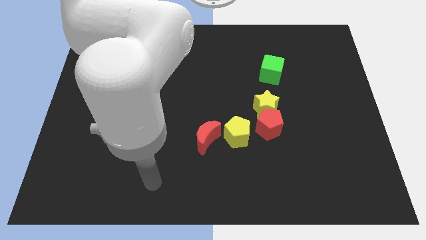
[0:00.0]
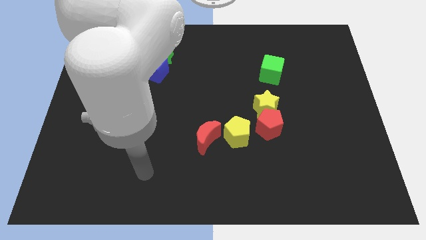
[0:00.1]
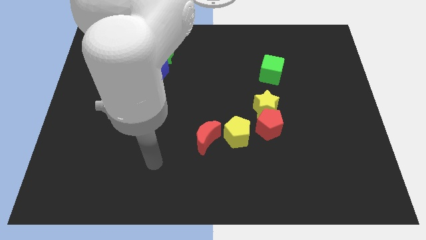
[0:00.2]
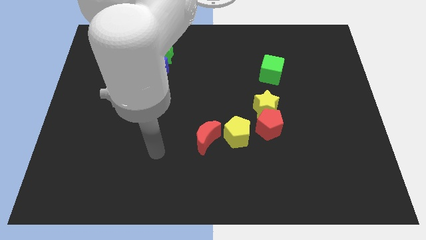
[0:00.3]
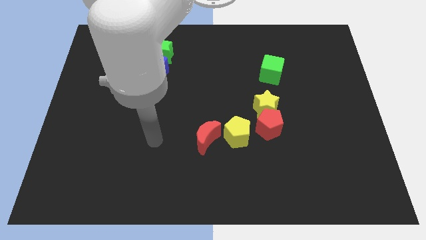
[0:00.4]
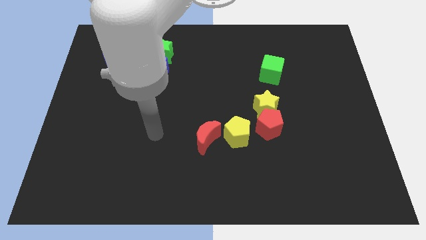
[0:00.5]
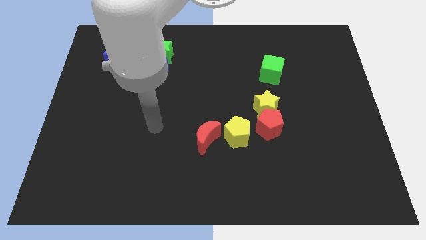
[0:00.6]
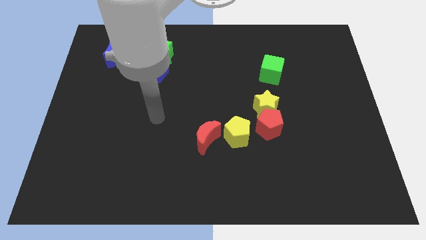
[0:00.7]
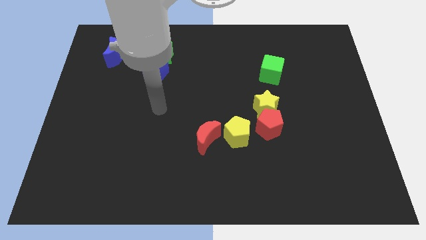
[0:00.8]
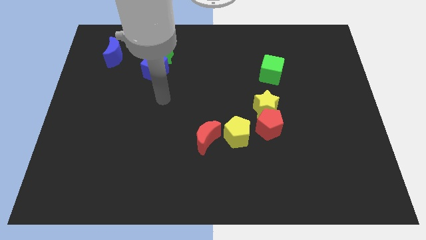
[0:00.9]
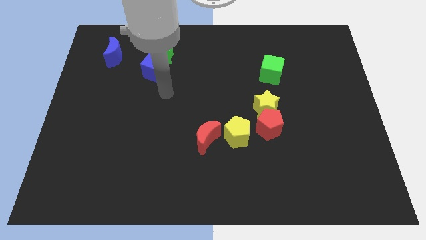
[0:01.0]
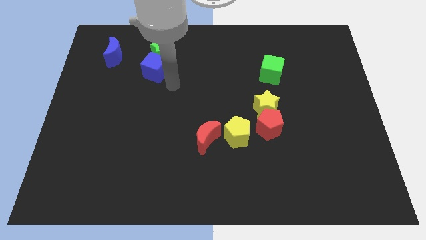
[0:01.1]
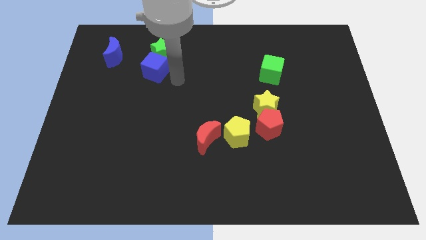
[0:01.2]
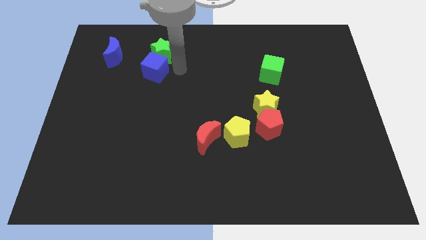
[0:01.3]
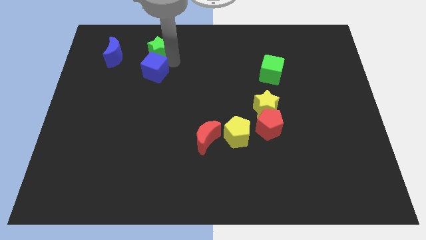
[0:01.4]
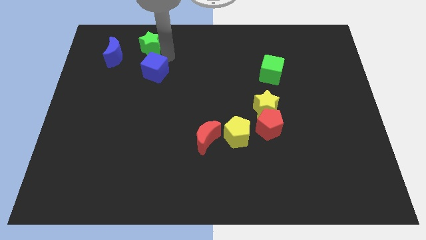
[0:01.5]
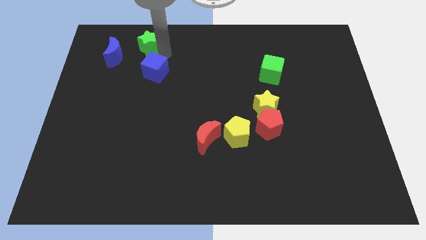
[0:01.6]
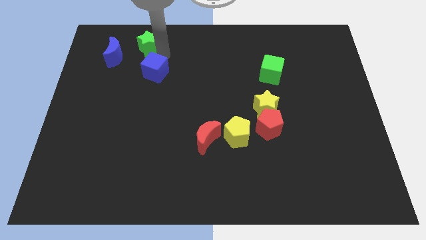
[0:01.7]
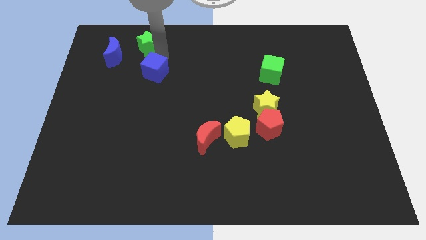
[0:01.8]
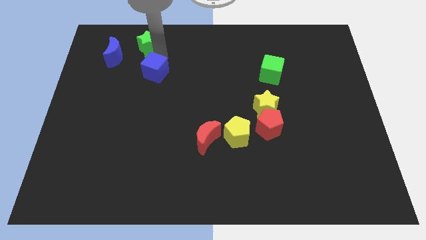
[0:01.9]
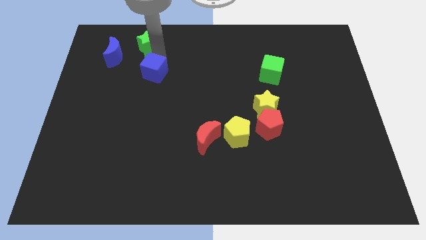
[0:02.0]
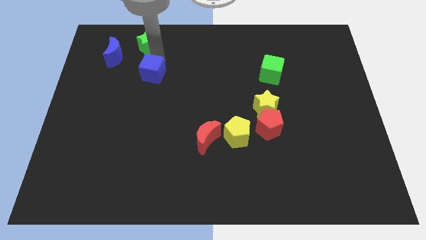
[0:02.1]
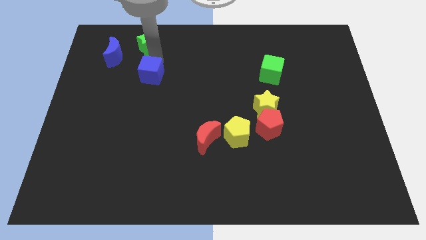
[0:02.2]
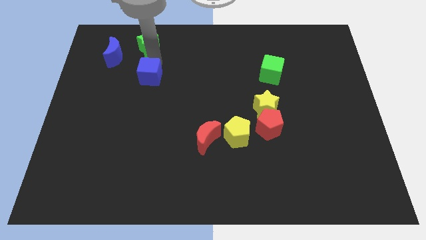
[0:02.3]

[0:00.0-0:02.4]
separate the blue cube from the green star

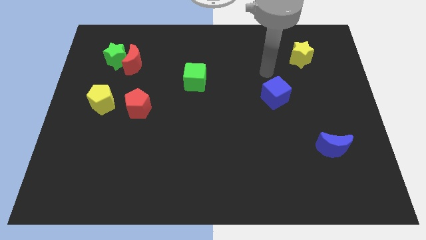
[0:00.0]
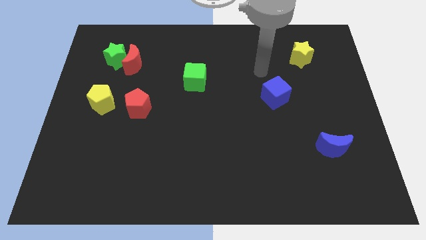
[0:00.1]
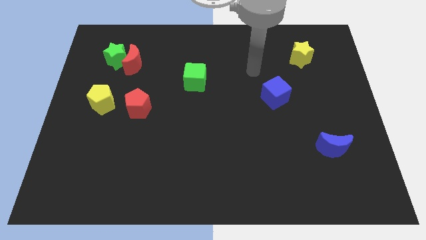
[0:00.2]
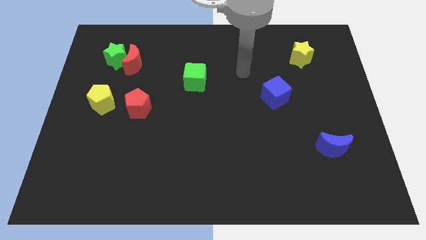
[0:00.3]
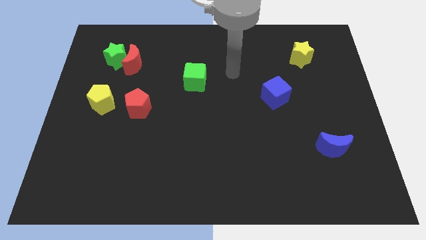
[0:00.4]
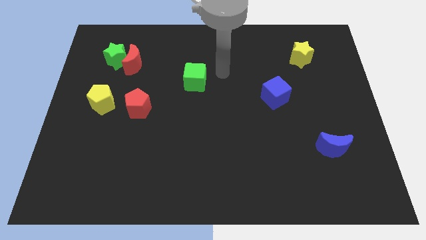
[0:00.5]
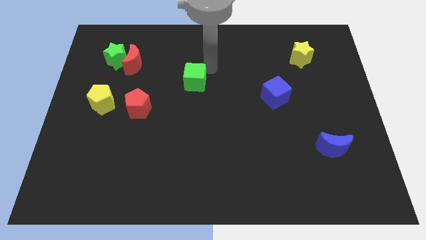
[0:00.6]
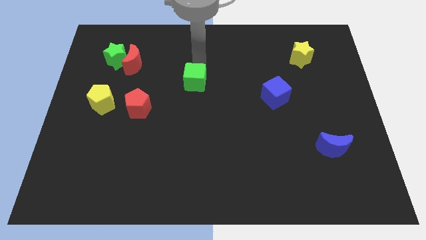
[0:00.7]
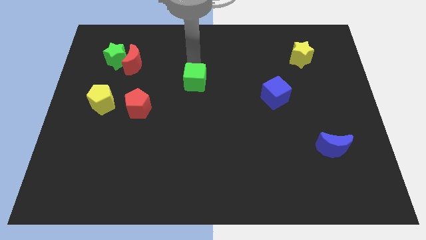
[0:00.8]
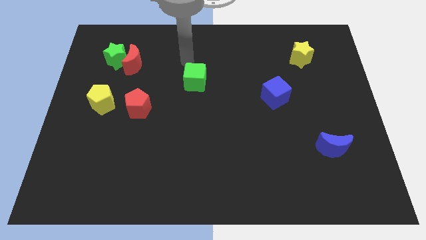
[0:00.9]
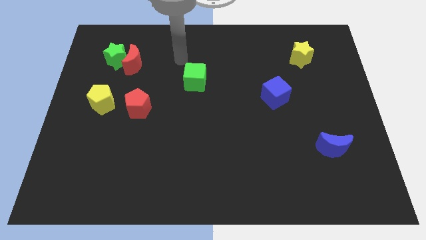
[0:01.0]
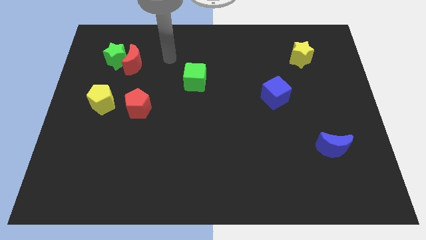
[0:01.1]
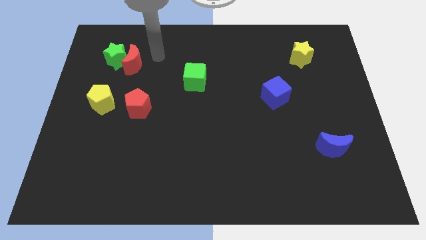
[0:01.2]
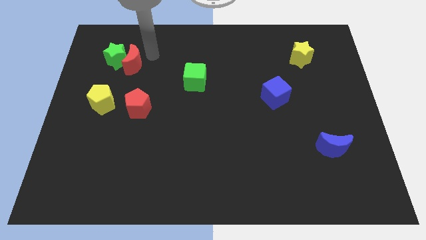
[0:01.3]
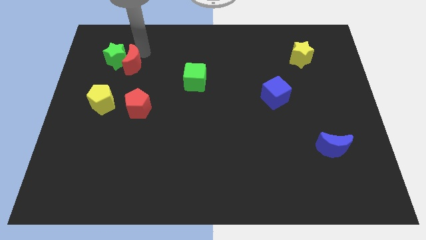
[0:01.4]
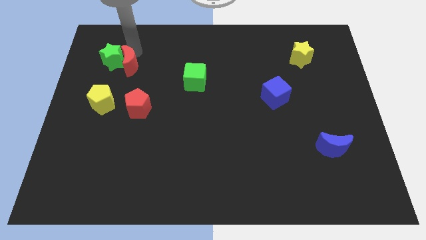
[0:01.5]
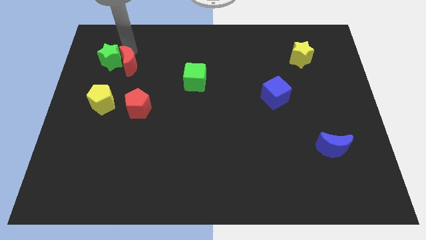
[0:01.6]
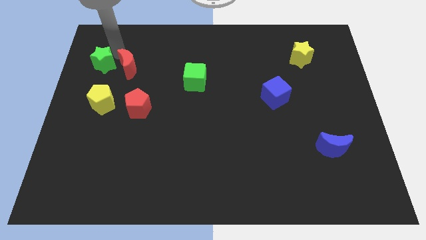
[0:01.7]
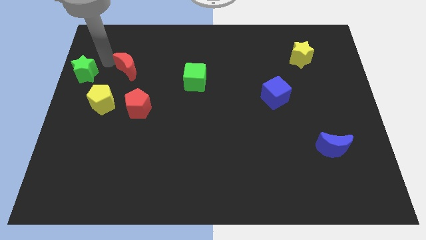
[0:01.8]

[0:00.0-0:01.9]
separate the red moon from the green star

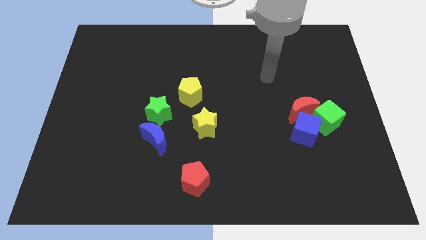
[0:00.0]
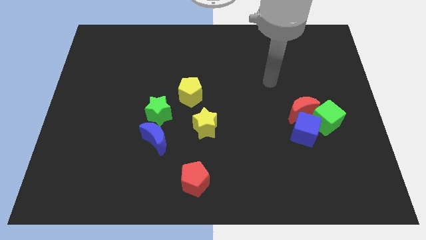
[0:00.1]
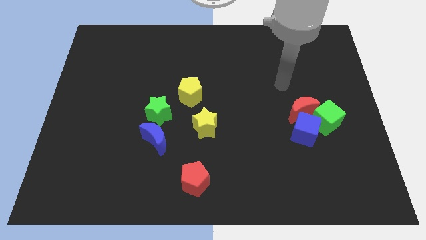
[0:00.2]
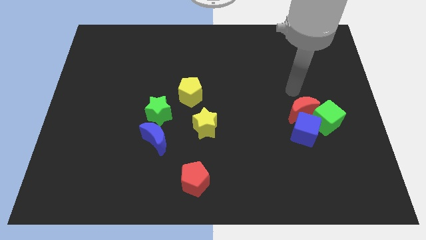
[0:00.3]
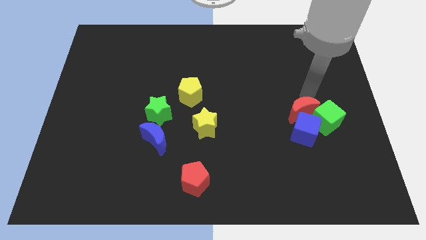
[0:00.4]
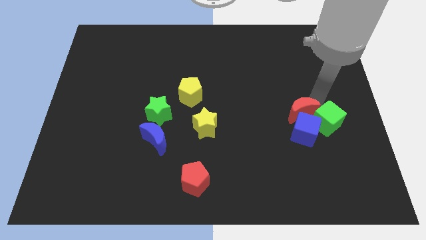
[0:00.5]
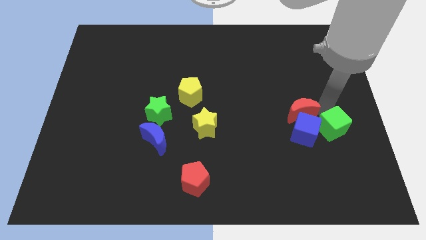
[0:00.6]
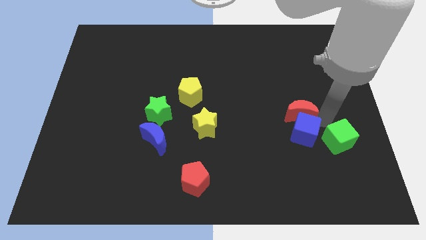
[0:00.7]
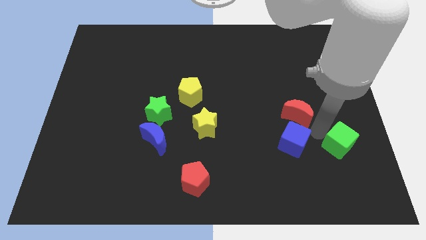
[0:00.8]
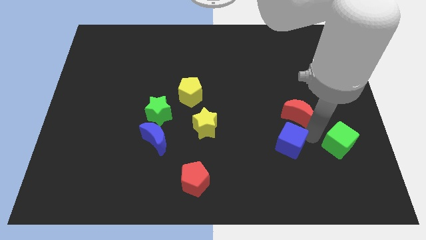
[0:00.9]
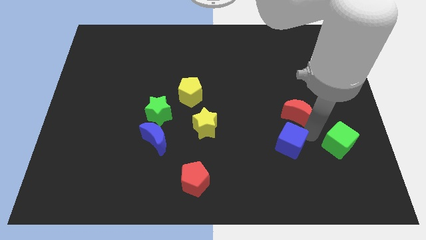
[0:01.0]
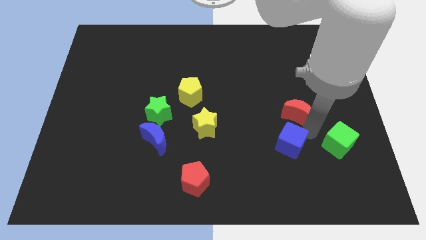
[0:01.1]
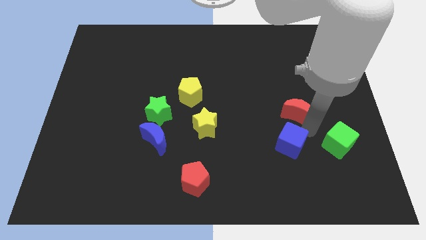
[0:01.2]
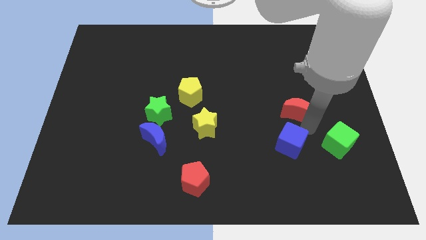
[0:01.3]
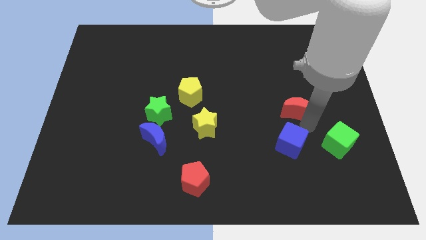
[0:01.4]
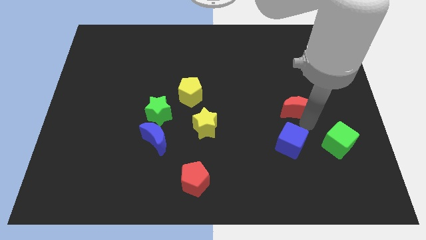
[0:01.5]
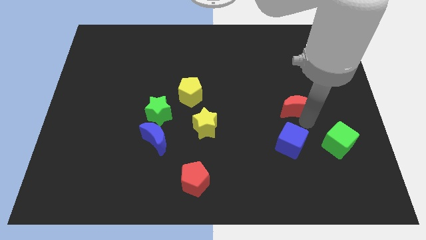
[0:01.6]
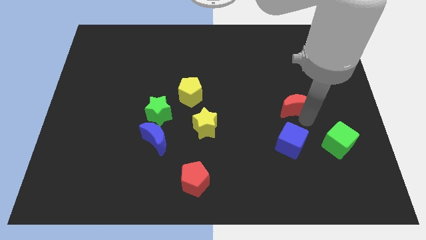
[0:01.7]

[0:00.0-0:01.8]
pull the red moon apart from the blue cube and green cube

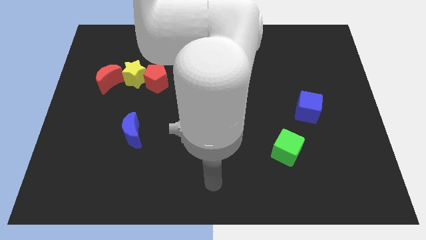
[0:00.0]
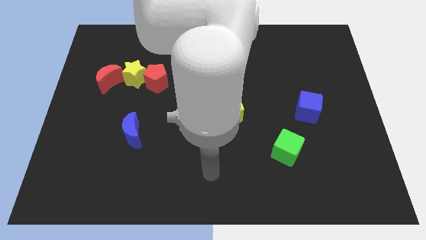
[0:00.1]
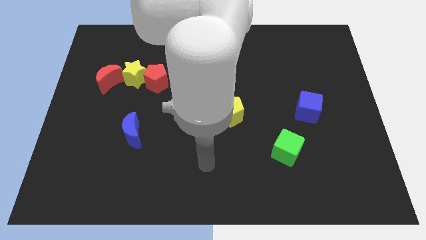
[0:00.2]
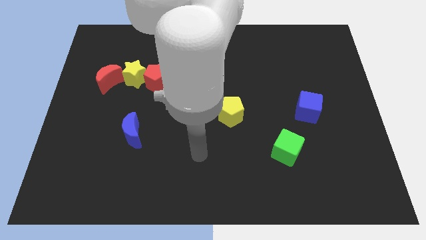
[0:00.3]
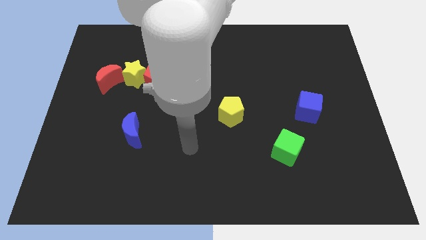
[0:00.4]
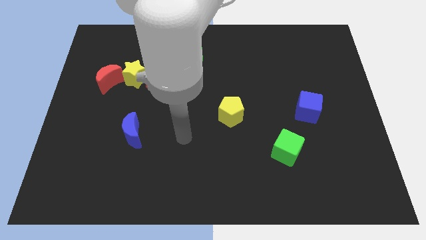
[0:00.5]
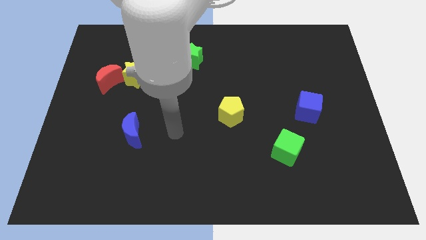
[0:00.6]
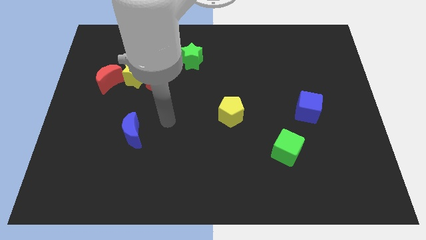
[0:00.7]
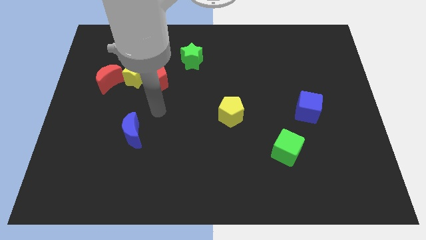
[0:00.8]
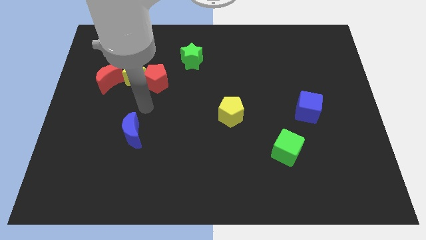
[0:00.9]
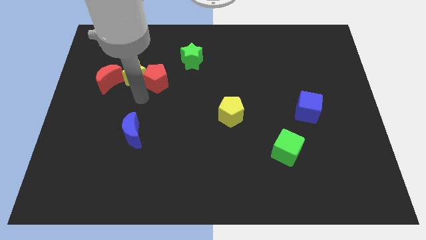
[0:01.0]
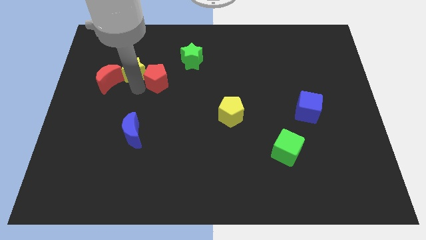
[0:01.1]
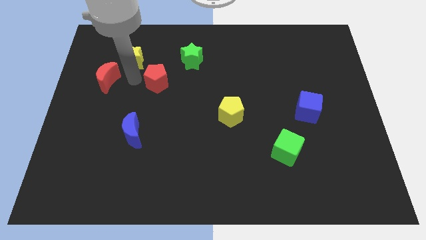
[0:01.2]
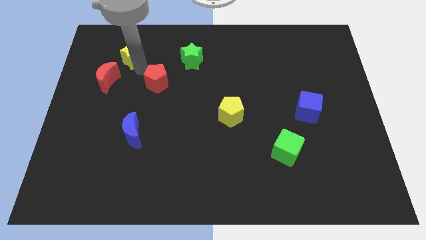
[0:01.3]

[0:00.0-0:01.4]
move the red pentagon away from the yellow star

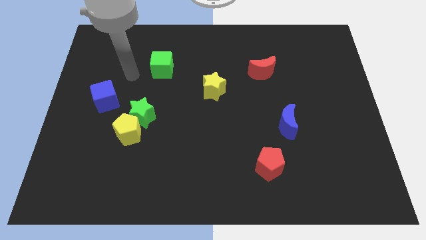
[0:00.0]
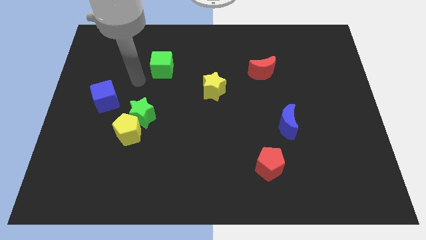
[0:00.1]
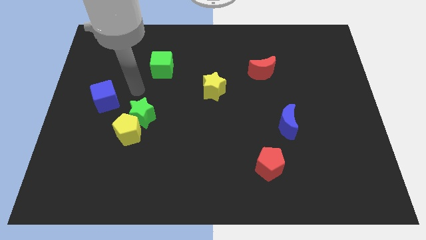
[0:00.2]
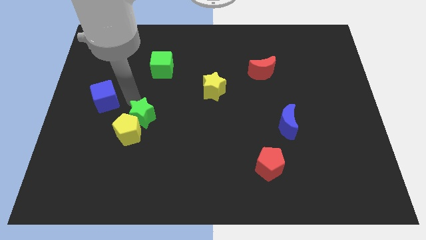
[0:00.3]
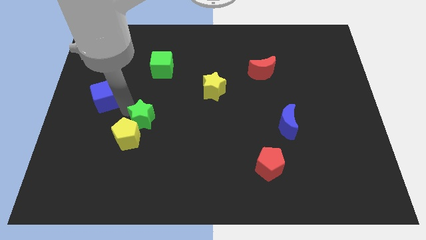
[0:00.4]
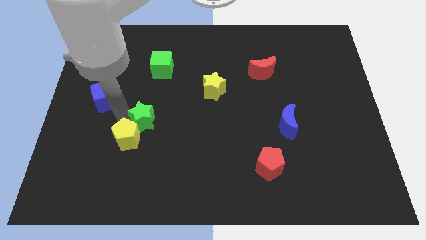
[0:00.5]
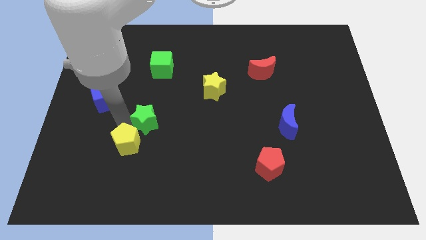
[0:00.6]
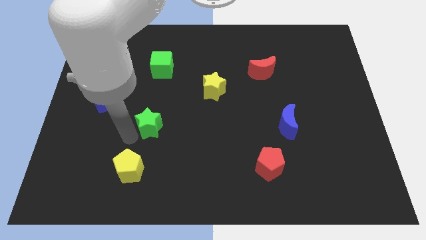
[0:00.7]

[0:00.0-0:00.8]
separate the green star from the yellow pentagon

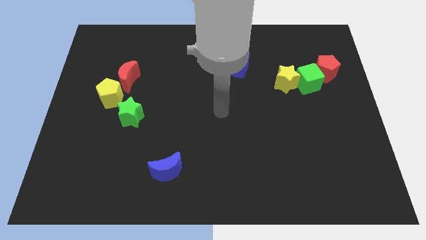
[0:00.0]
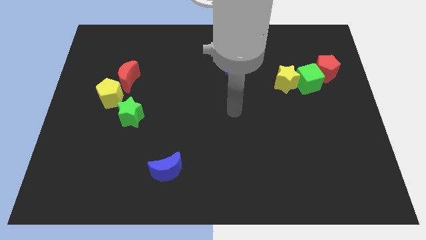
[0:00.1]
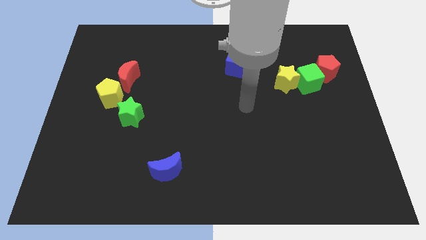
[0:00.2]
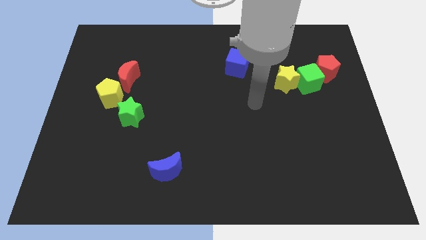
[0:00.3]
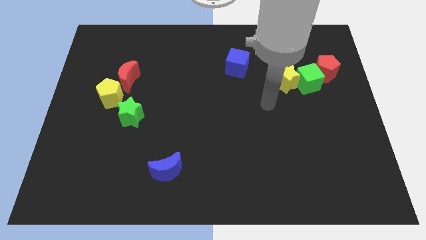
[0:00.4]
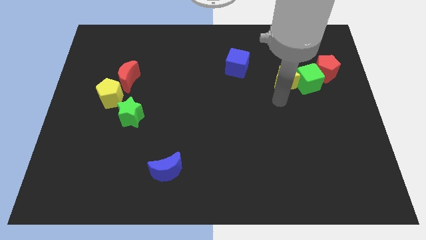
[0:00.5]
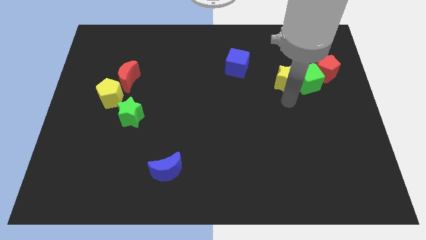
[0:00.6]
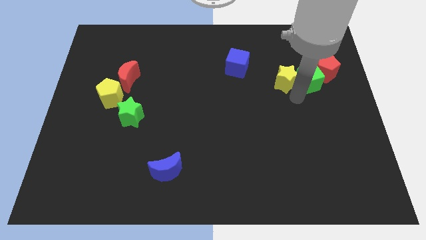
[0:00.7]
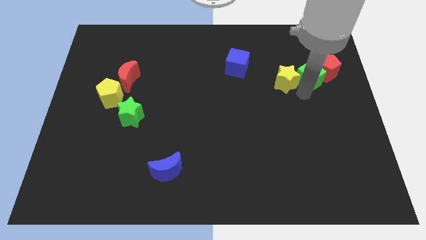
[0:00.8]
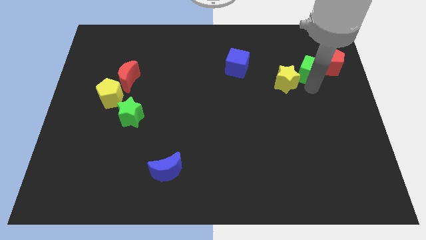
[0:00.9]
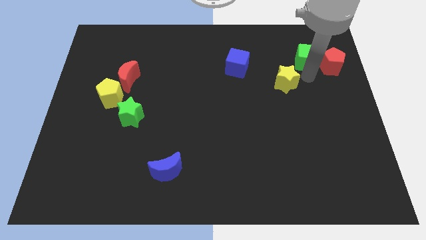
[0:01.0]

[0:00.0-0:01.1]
separate the yellow star from the green cube
